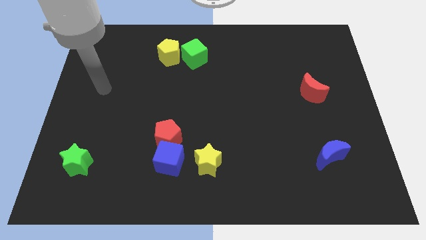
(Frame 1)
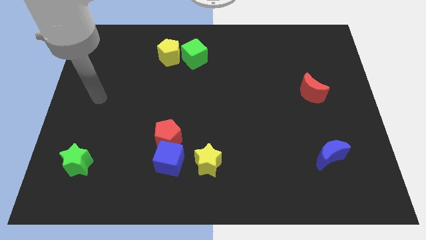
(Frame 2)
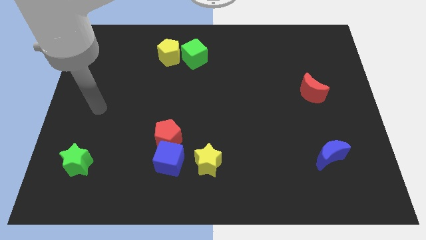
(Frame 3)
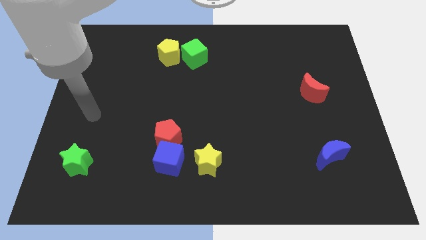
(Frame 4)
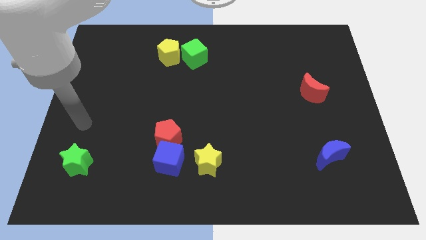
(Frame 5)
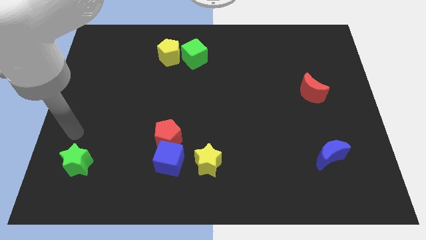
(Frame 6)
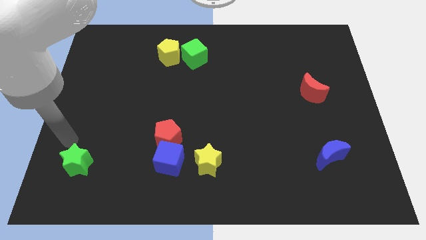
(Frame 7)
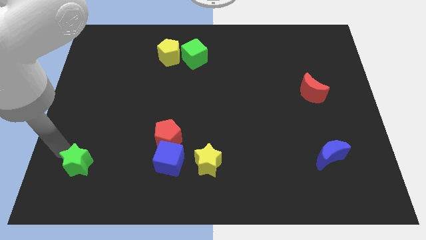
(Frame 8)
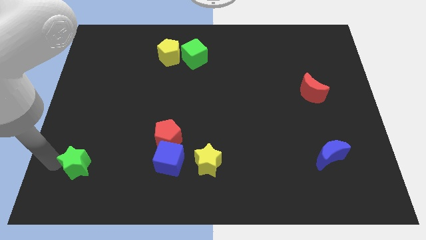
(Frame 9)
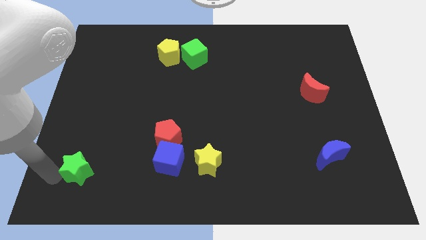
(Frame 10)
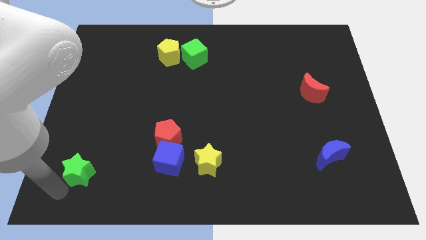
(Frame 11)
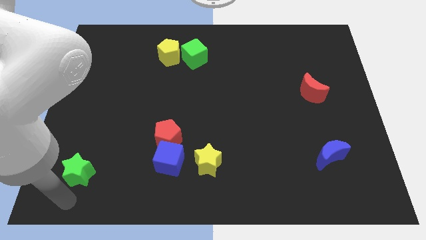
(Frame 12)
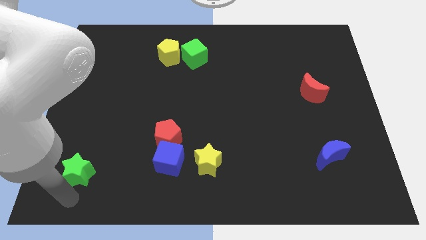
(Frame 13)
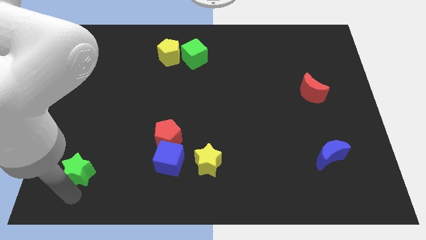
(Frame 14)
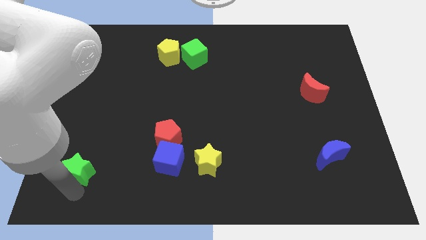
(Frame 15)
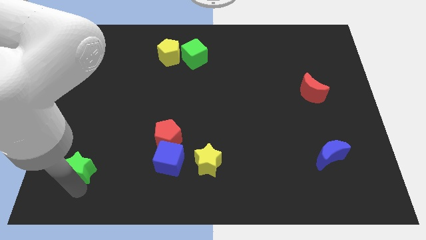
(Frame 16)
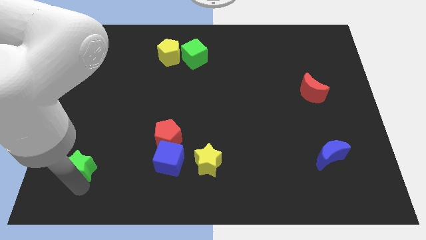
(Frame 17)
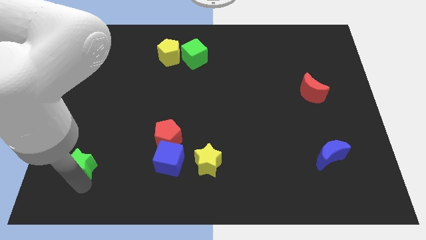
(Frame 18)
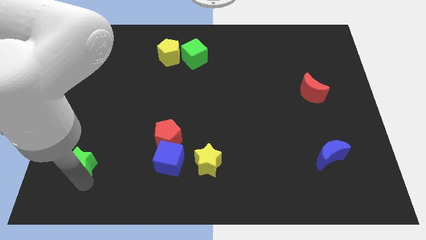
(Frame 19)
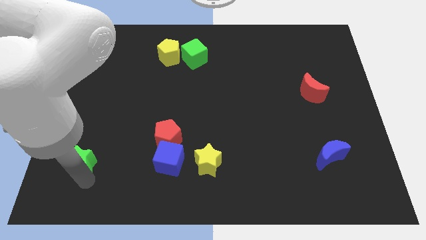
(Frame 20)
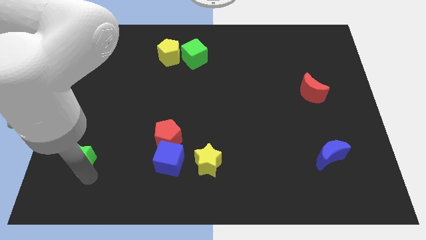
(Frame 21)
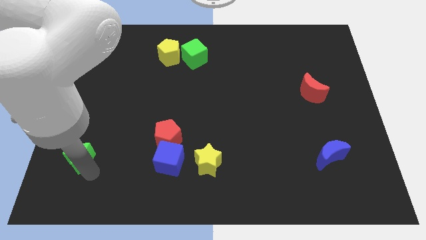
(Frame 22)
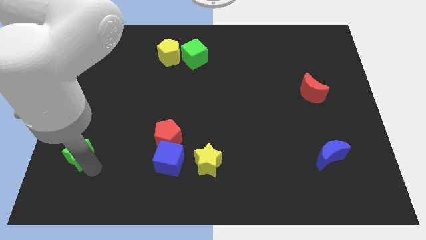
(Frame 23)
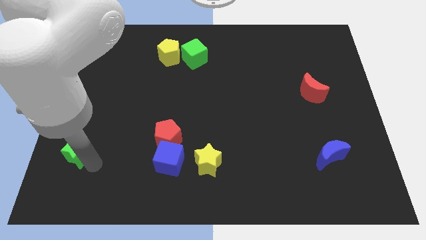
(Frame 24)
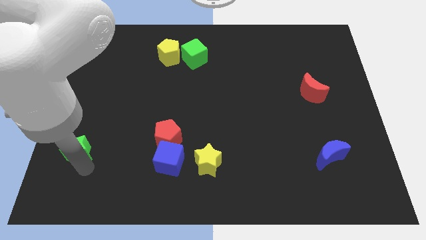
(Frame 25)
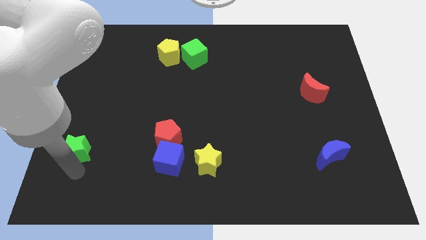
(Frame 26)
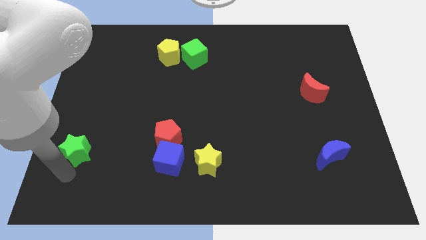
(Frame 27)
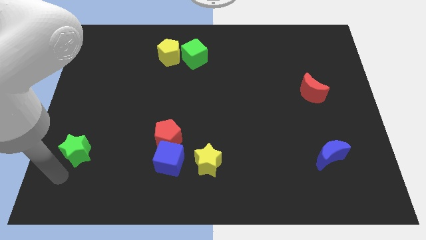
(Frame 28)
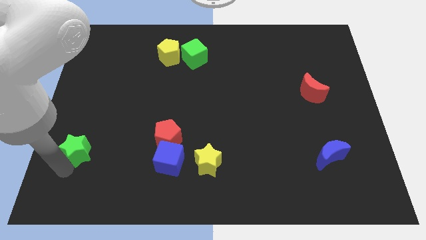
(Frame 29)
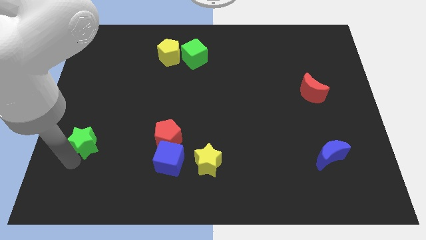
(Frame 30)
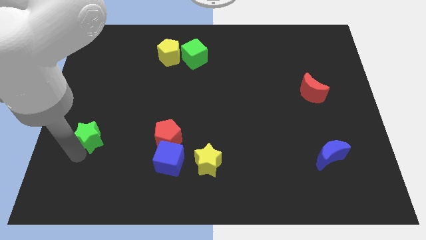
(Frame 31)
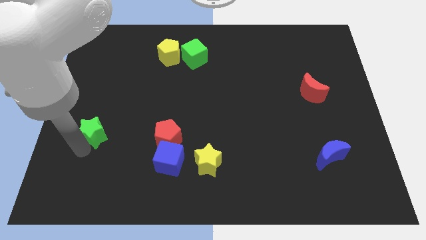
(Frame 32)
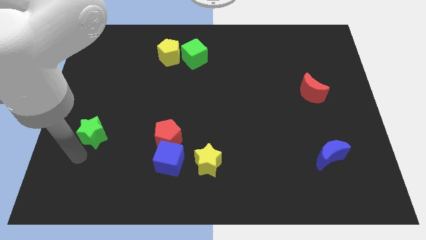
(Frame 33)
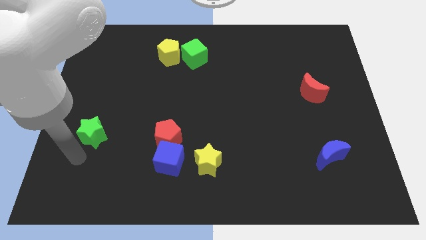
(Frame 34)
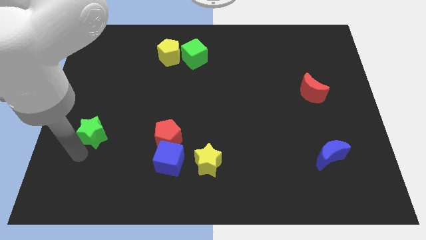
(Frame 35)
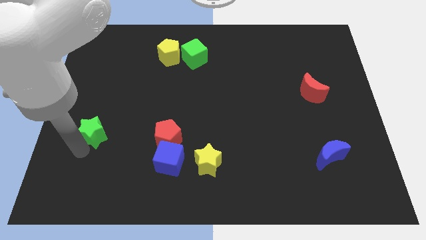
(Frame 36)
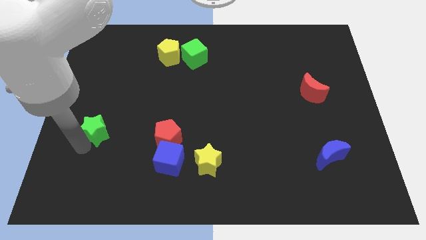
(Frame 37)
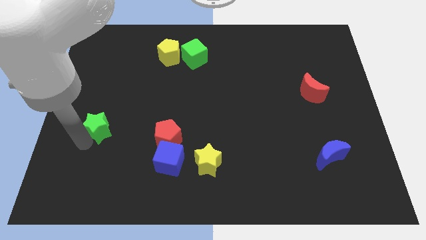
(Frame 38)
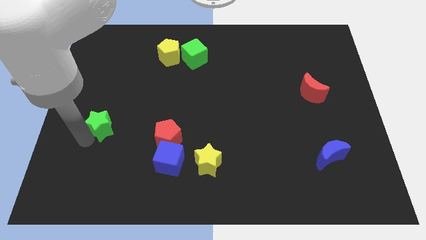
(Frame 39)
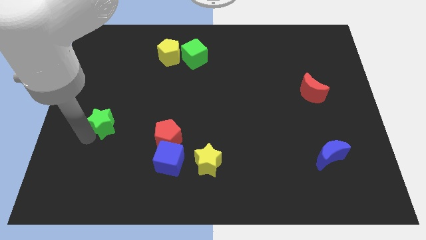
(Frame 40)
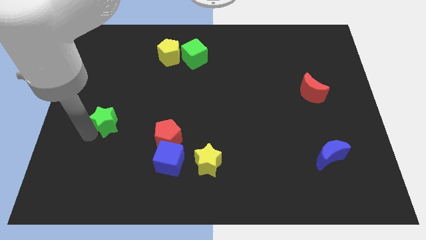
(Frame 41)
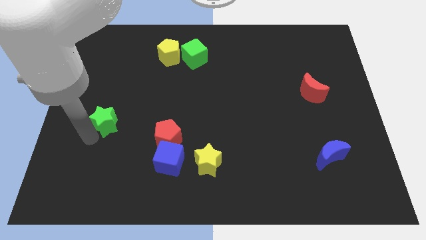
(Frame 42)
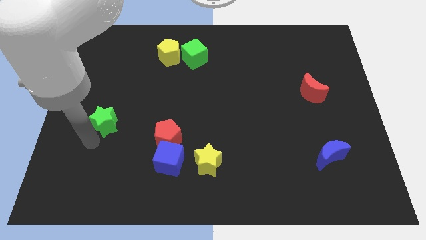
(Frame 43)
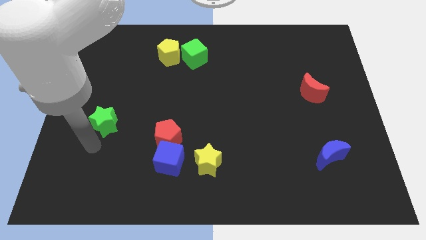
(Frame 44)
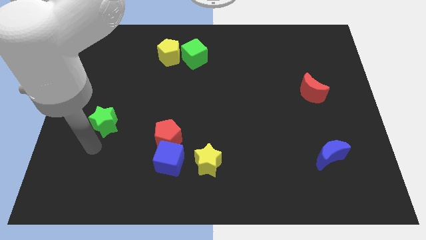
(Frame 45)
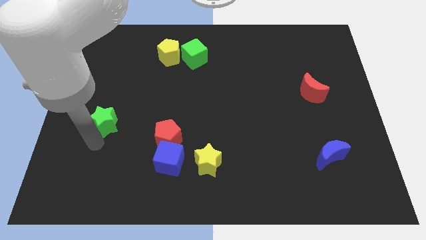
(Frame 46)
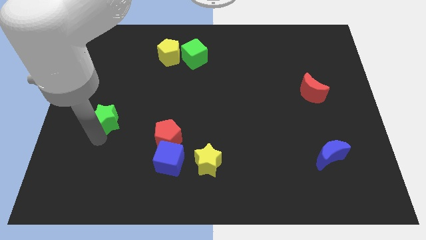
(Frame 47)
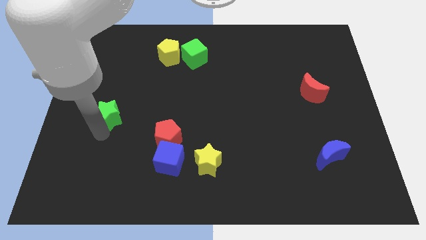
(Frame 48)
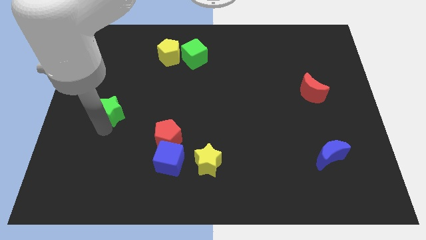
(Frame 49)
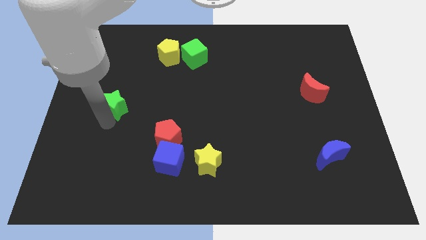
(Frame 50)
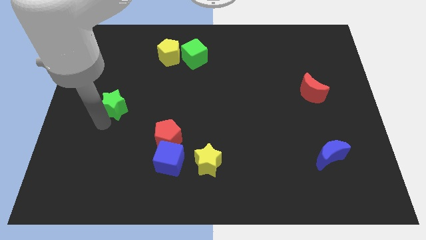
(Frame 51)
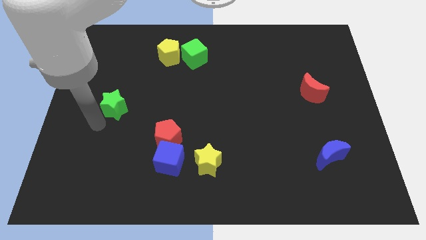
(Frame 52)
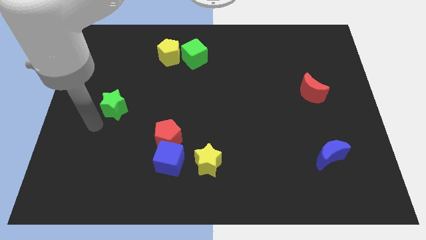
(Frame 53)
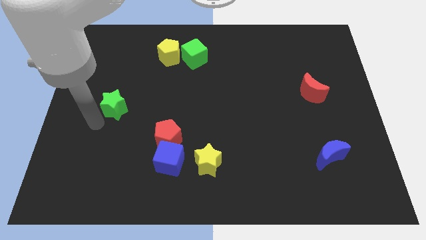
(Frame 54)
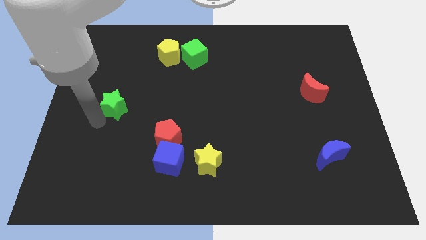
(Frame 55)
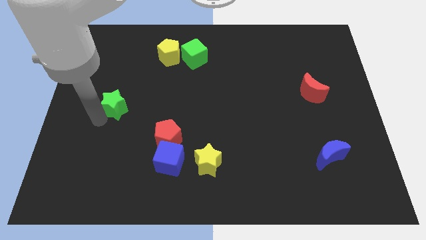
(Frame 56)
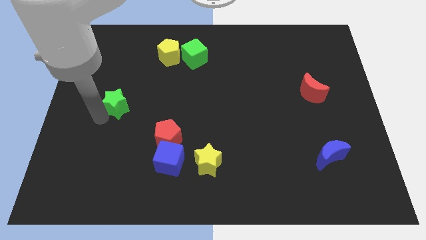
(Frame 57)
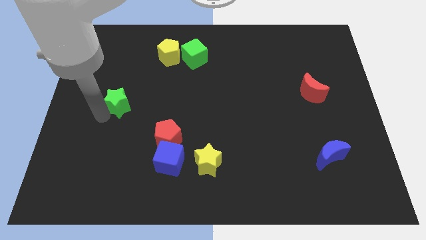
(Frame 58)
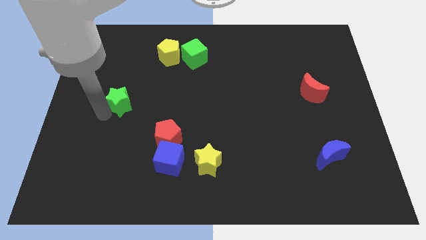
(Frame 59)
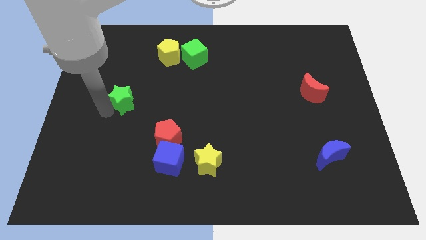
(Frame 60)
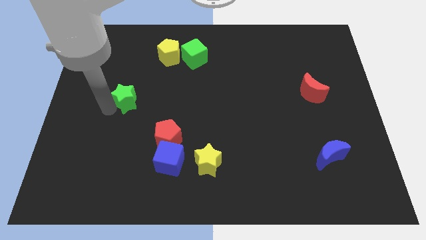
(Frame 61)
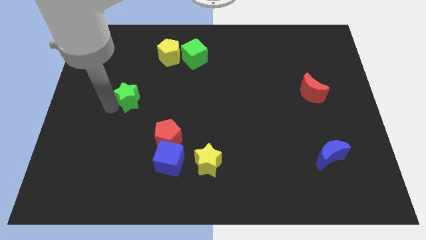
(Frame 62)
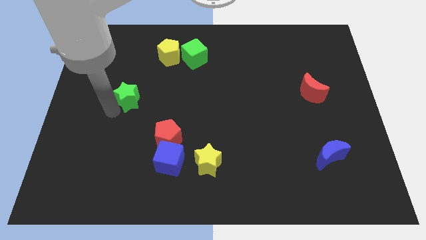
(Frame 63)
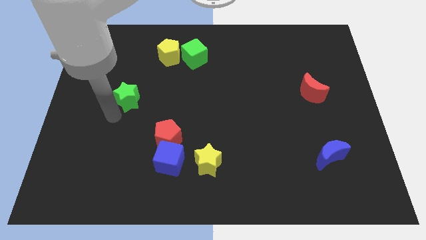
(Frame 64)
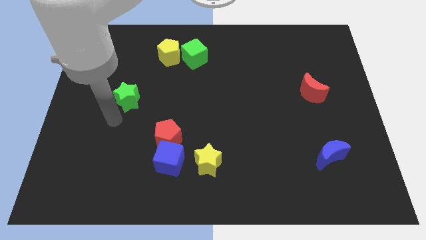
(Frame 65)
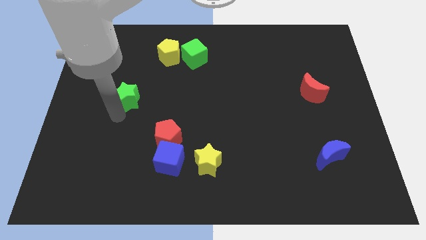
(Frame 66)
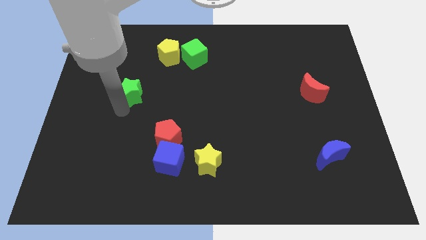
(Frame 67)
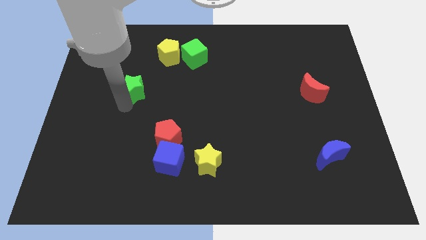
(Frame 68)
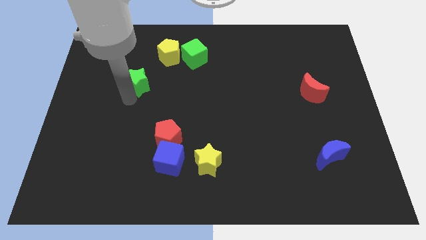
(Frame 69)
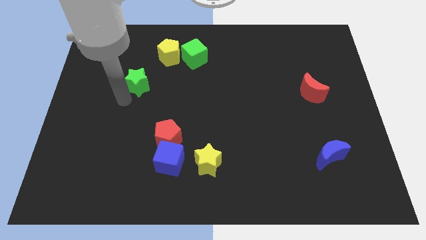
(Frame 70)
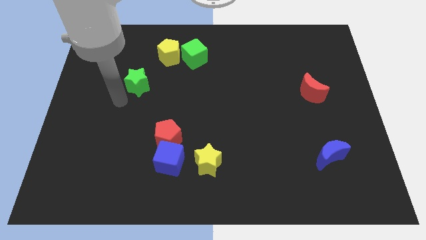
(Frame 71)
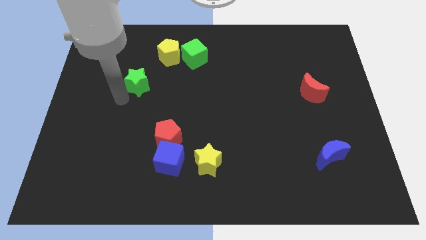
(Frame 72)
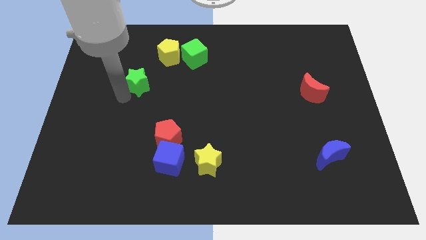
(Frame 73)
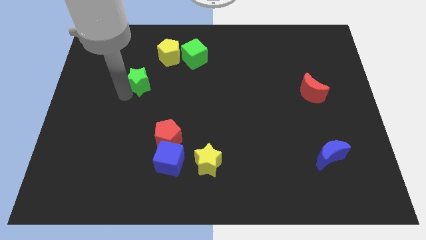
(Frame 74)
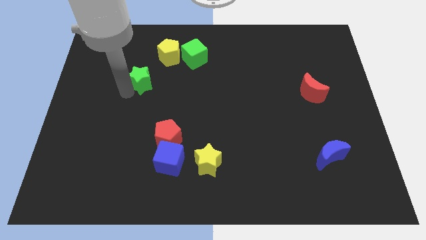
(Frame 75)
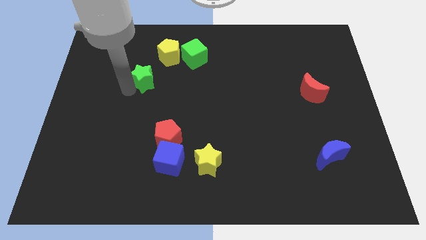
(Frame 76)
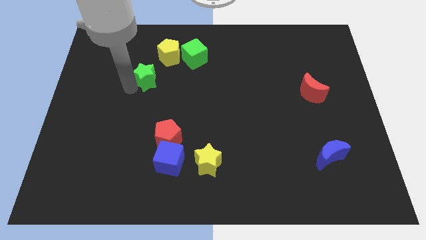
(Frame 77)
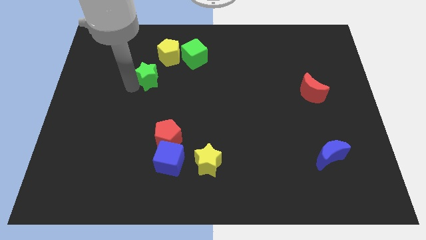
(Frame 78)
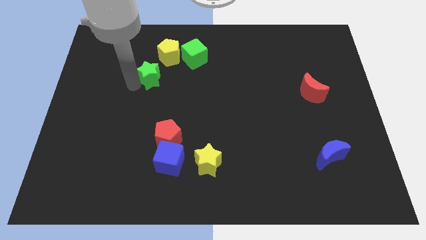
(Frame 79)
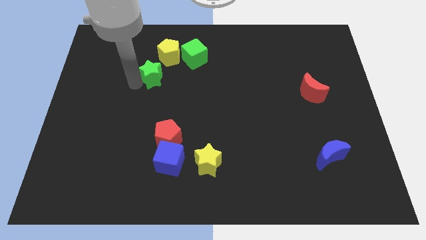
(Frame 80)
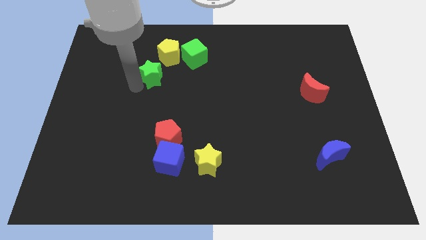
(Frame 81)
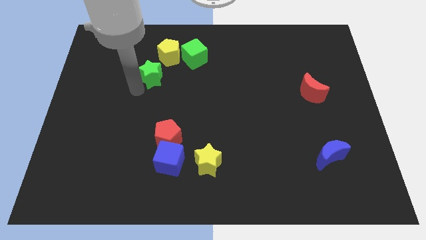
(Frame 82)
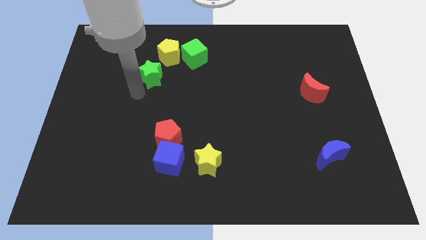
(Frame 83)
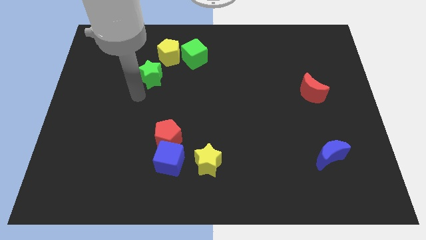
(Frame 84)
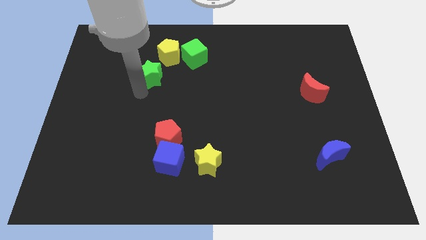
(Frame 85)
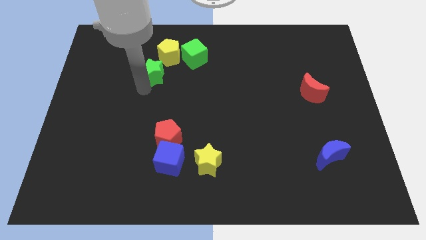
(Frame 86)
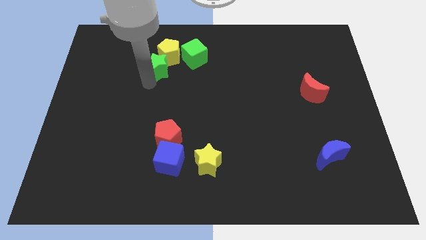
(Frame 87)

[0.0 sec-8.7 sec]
push the green star to the yellow pentagon
